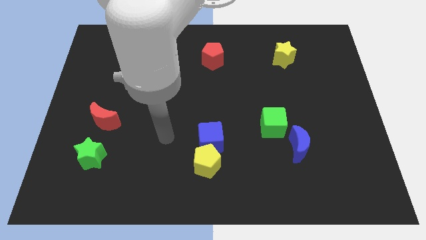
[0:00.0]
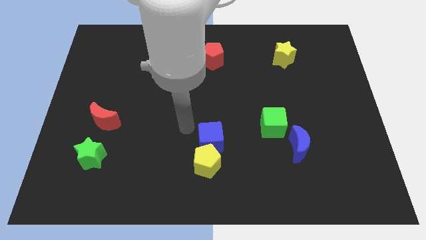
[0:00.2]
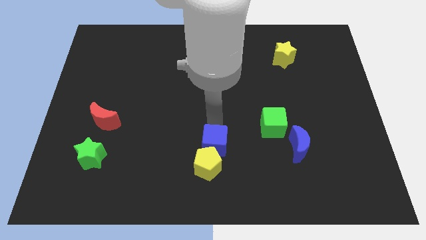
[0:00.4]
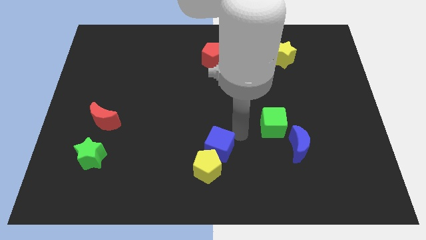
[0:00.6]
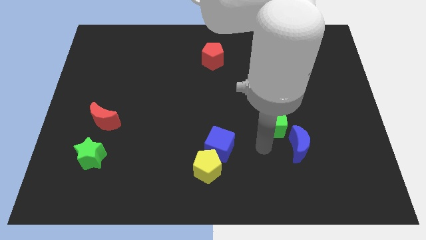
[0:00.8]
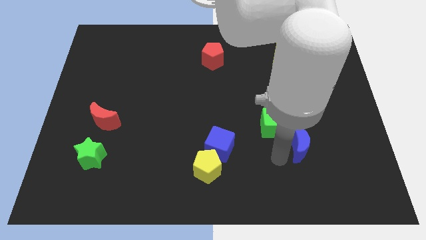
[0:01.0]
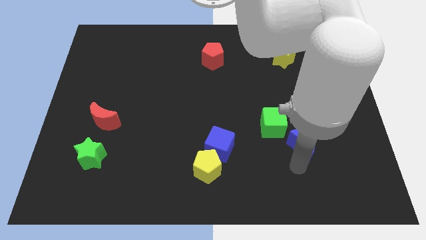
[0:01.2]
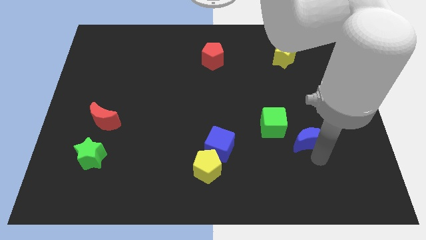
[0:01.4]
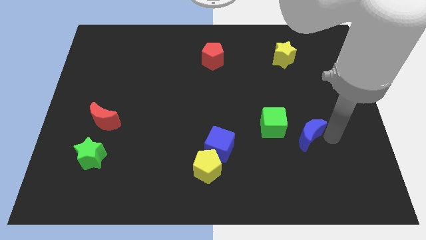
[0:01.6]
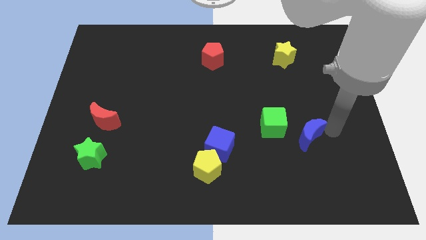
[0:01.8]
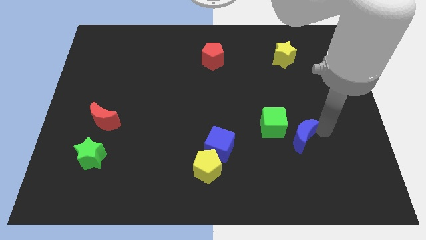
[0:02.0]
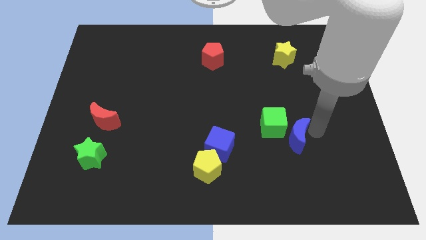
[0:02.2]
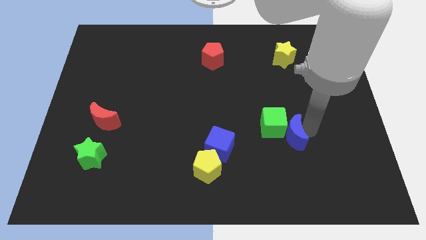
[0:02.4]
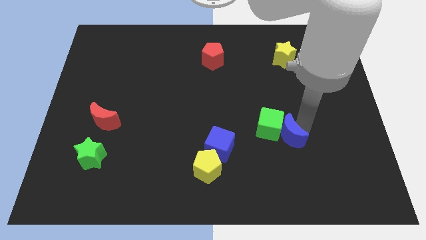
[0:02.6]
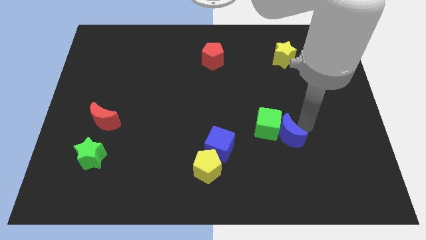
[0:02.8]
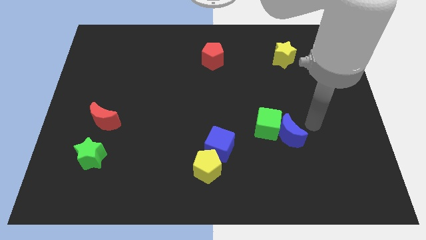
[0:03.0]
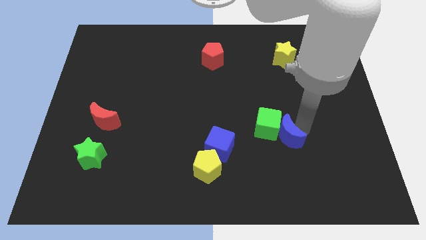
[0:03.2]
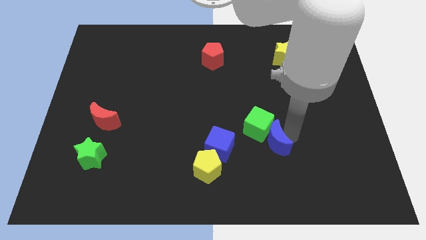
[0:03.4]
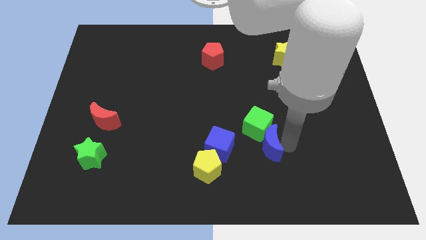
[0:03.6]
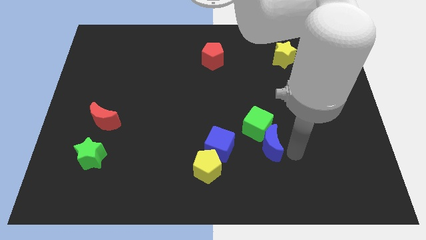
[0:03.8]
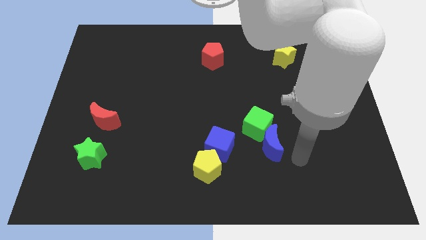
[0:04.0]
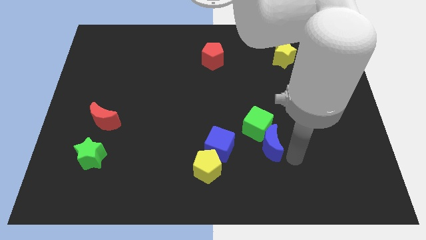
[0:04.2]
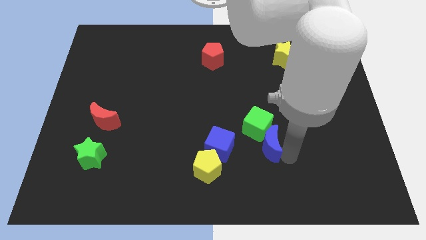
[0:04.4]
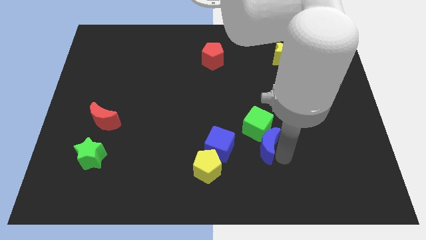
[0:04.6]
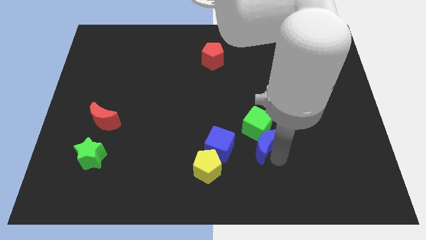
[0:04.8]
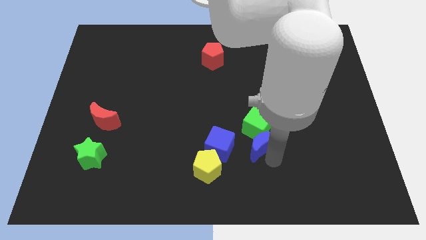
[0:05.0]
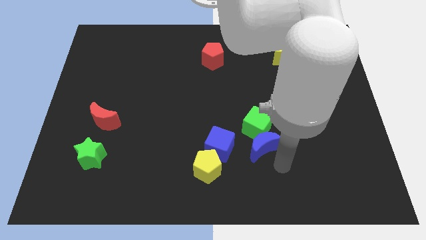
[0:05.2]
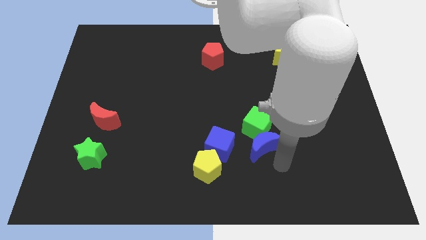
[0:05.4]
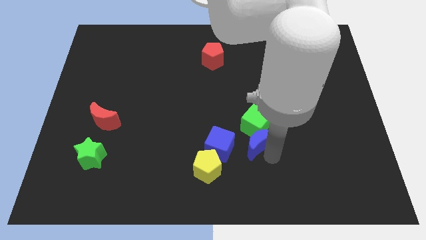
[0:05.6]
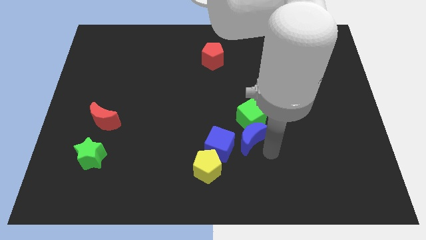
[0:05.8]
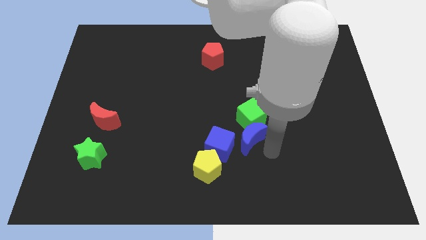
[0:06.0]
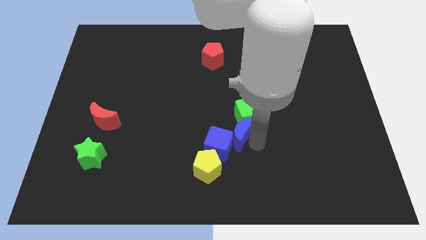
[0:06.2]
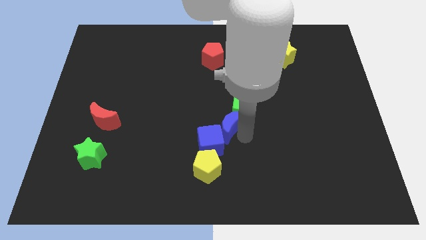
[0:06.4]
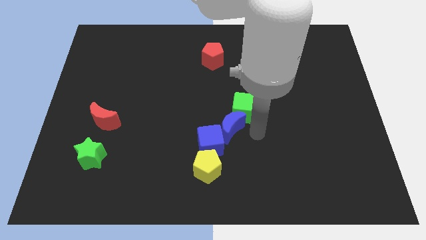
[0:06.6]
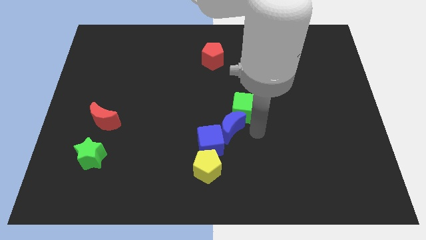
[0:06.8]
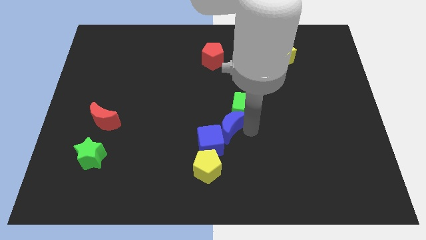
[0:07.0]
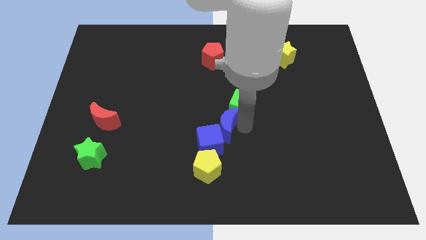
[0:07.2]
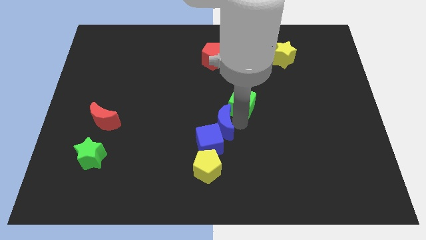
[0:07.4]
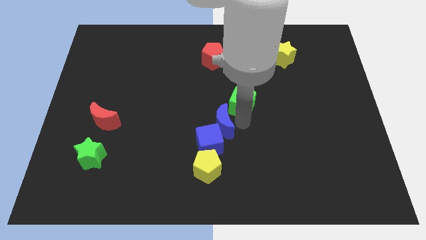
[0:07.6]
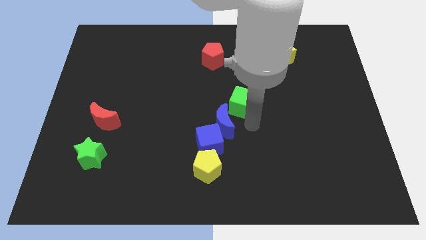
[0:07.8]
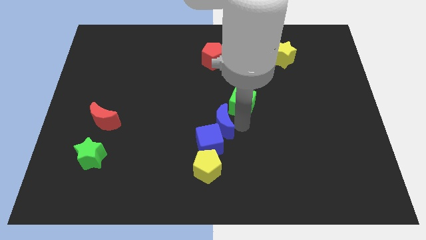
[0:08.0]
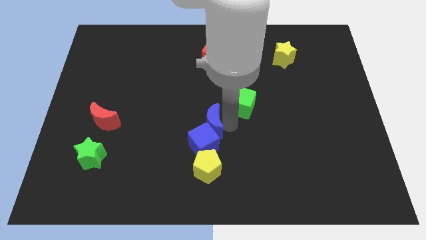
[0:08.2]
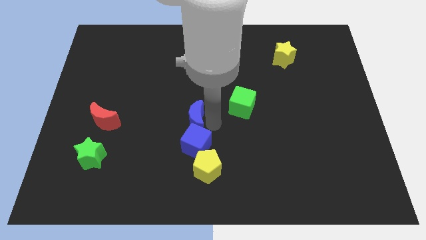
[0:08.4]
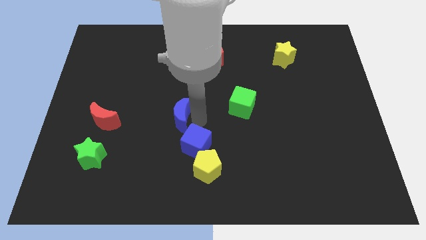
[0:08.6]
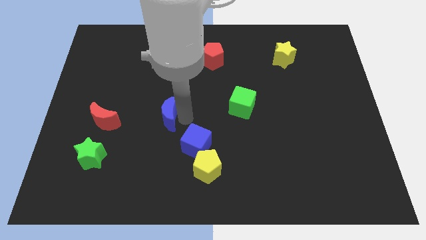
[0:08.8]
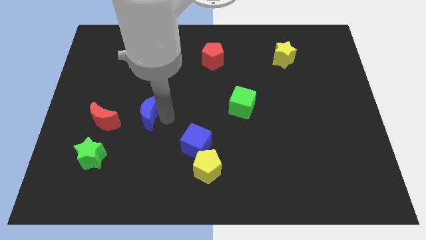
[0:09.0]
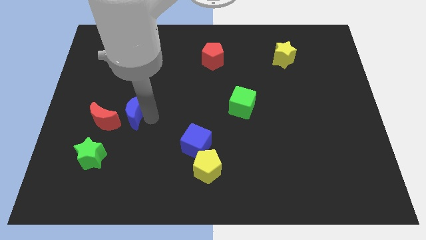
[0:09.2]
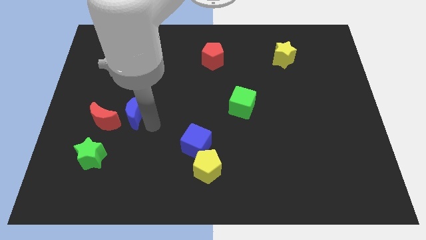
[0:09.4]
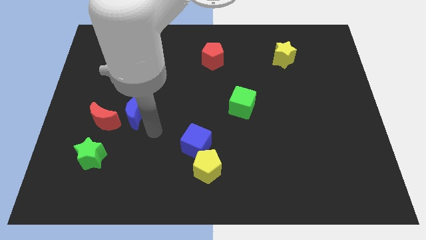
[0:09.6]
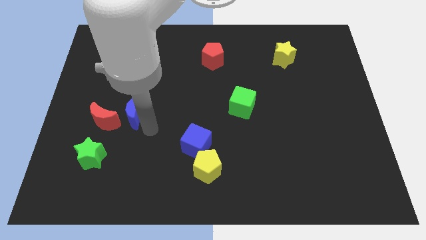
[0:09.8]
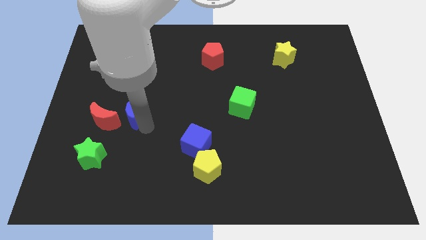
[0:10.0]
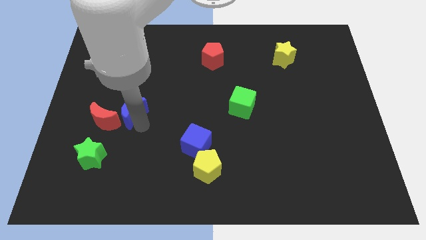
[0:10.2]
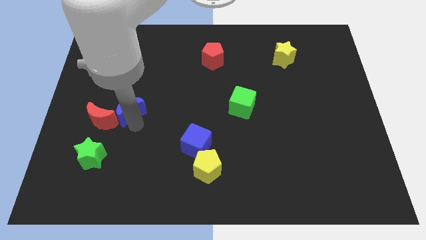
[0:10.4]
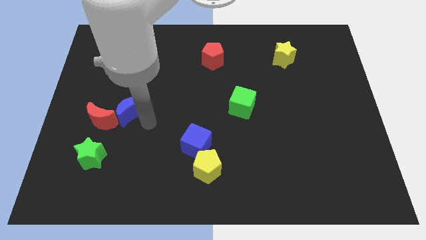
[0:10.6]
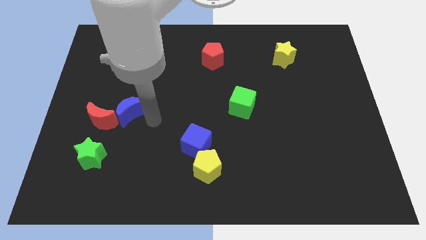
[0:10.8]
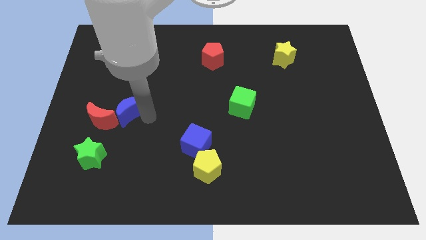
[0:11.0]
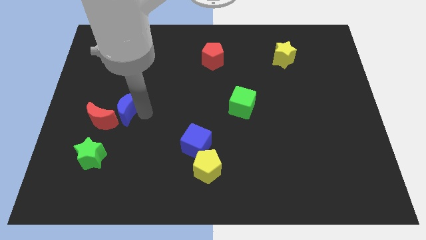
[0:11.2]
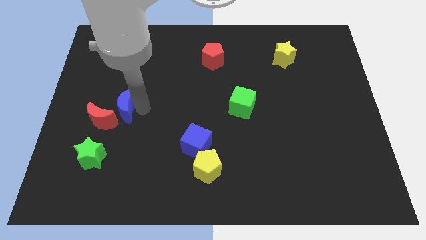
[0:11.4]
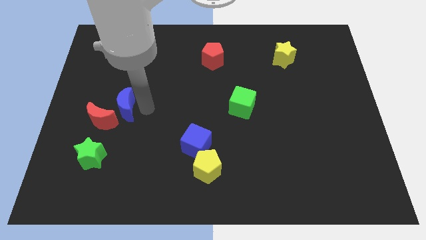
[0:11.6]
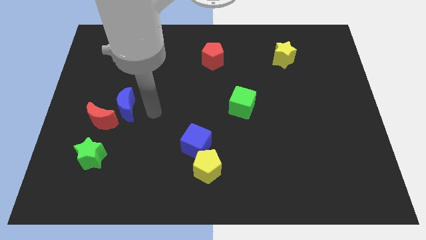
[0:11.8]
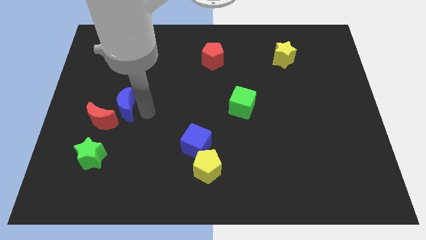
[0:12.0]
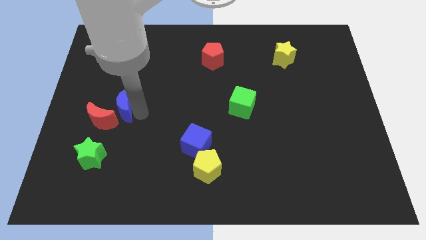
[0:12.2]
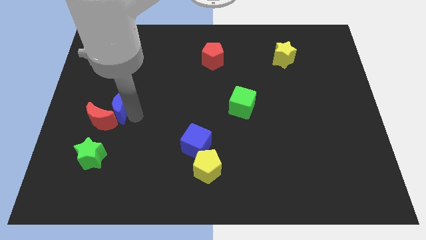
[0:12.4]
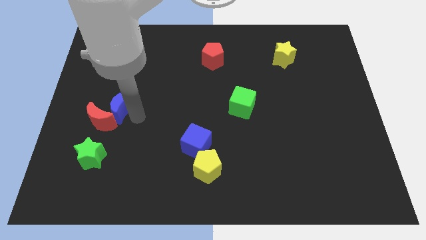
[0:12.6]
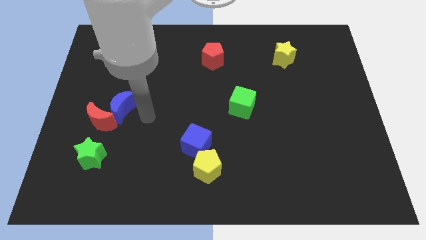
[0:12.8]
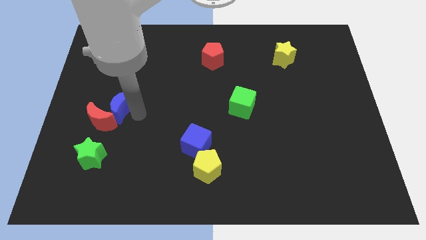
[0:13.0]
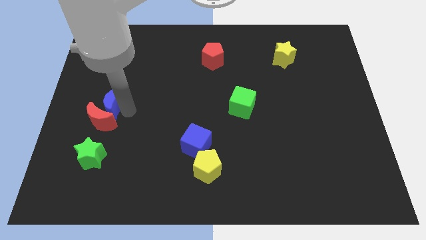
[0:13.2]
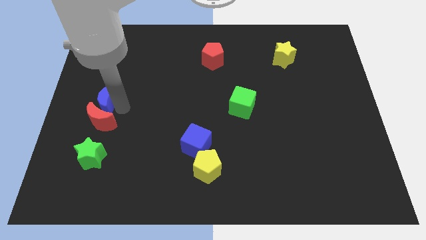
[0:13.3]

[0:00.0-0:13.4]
slide the blue moon to the left side
